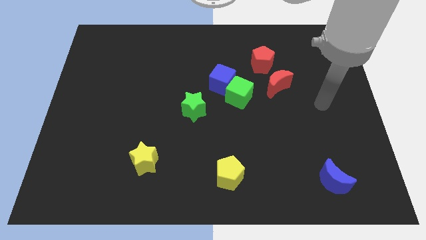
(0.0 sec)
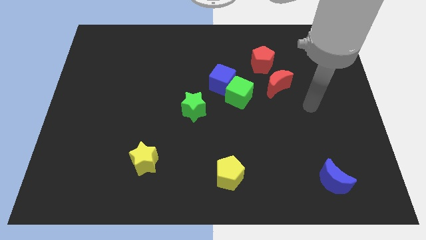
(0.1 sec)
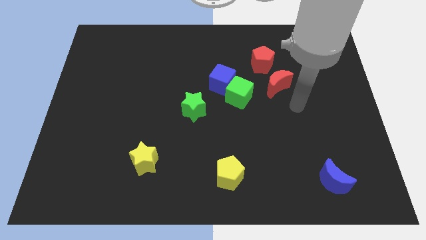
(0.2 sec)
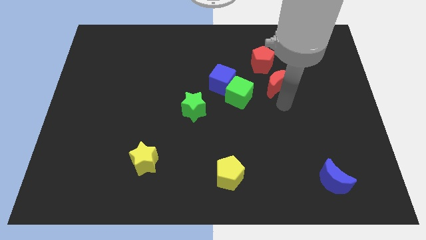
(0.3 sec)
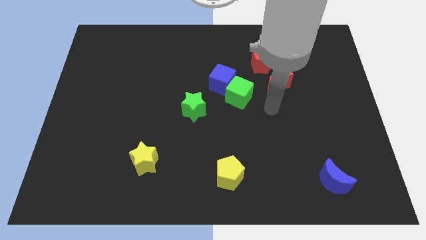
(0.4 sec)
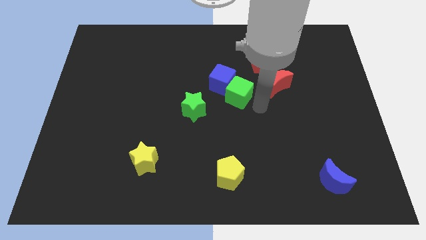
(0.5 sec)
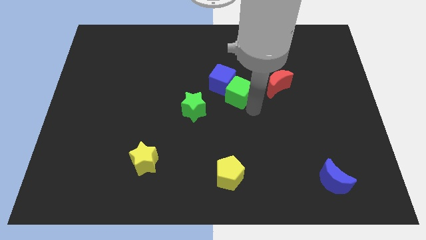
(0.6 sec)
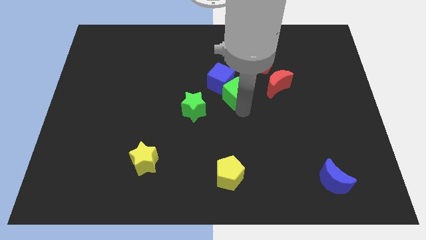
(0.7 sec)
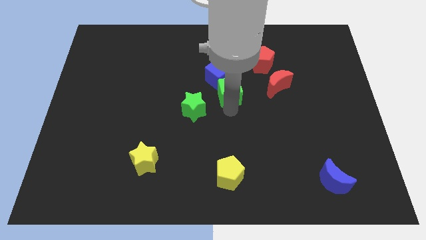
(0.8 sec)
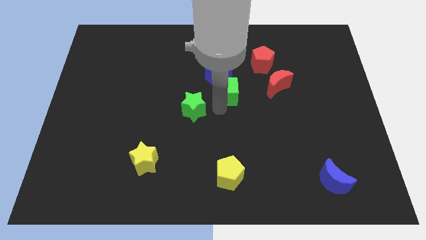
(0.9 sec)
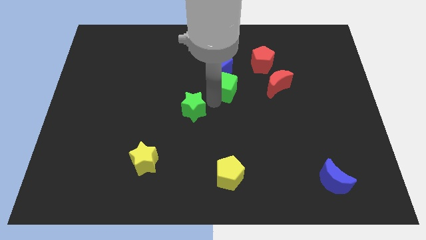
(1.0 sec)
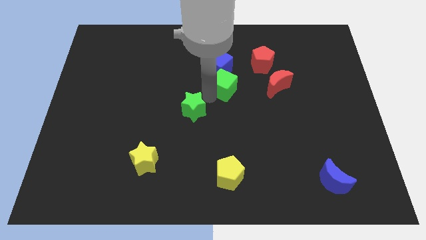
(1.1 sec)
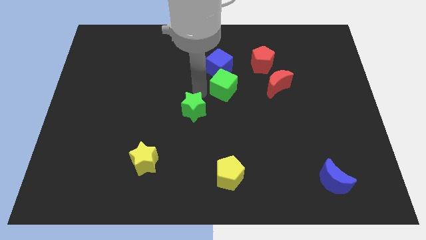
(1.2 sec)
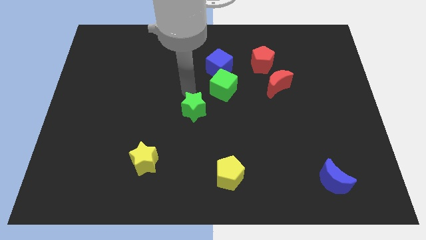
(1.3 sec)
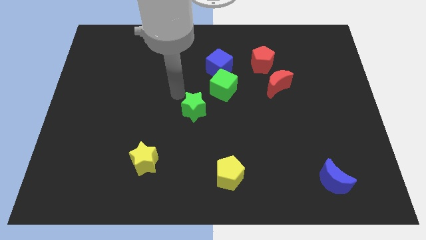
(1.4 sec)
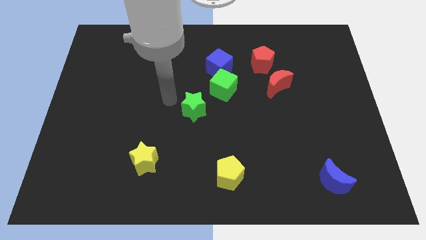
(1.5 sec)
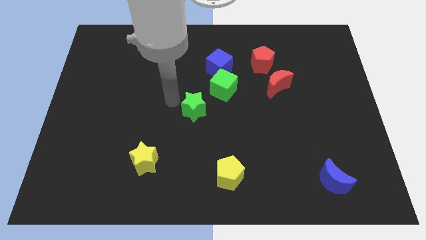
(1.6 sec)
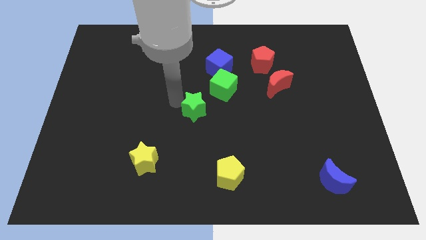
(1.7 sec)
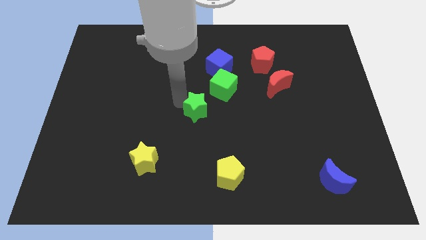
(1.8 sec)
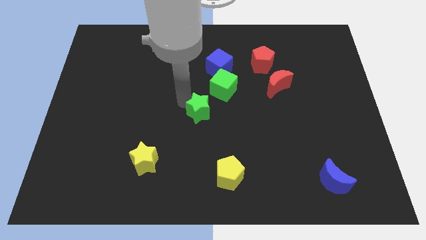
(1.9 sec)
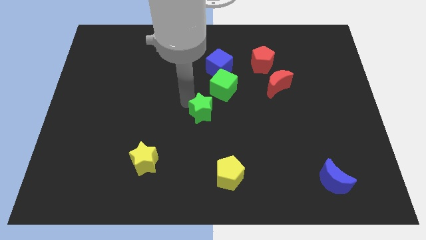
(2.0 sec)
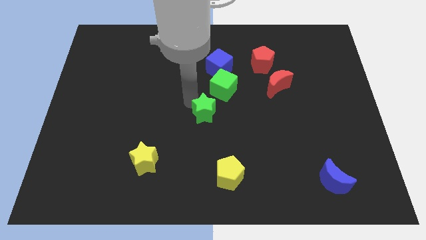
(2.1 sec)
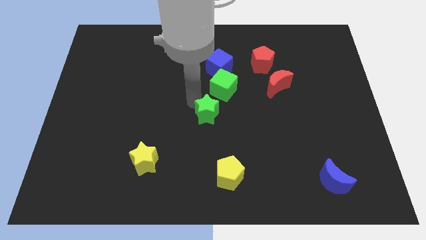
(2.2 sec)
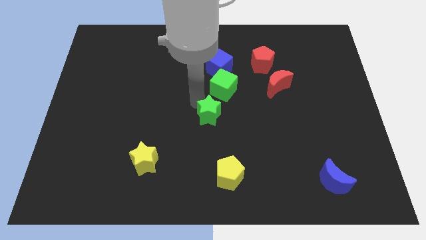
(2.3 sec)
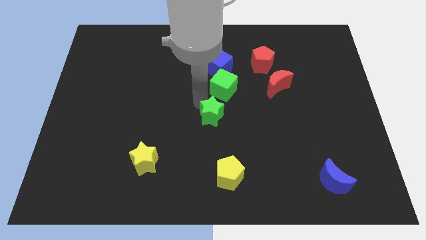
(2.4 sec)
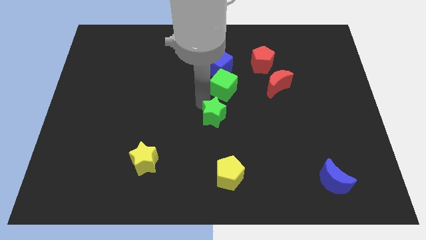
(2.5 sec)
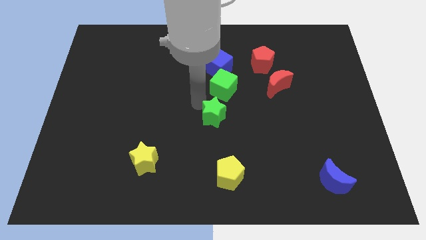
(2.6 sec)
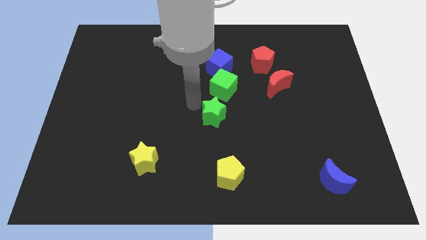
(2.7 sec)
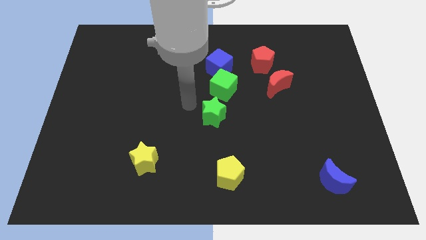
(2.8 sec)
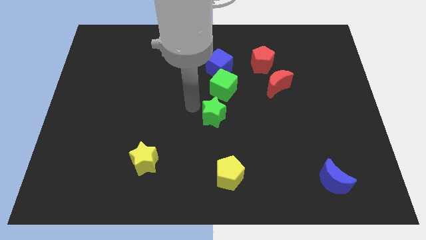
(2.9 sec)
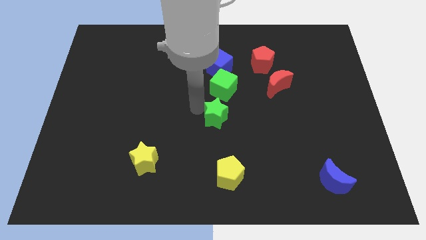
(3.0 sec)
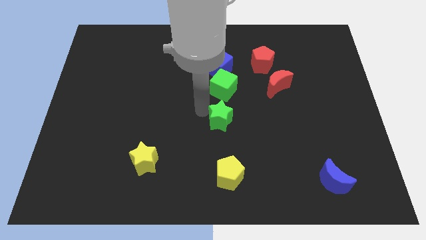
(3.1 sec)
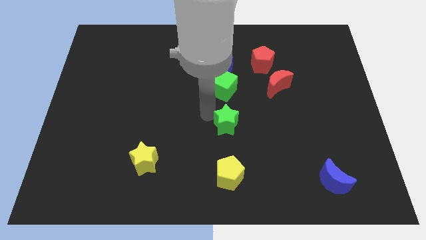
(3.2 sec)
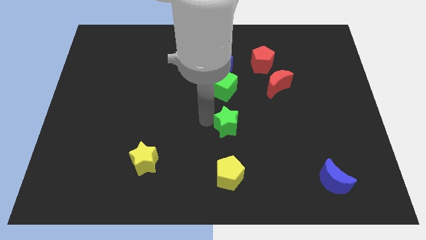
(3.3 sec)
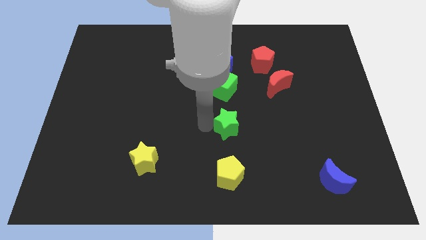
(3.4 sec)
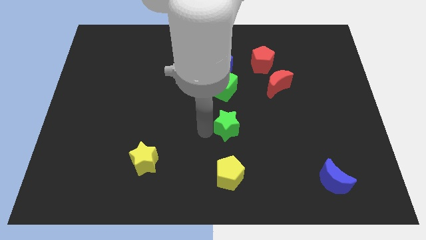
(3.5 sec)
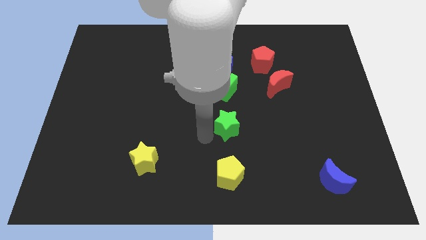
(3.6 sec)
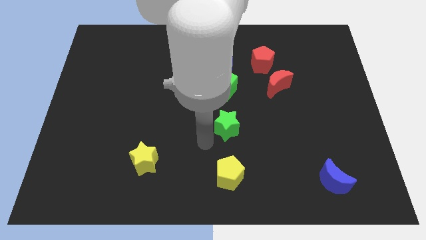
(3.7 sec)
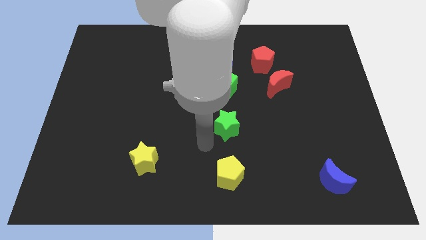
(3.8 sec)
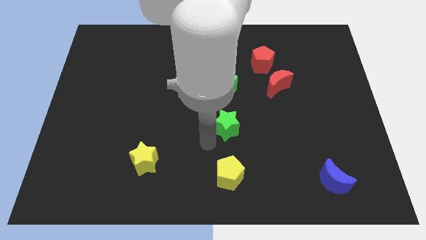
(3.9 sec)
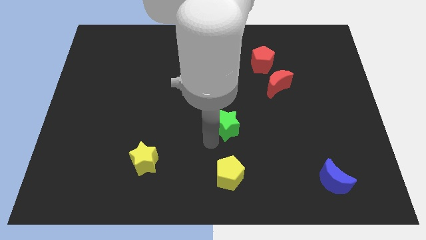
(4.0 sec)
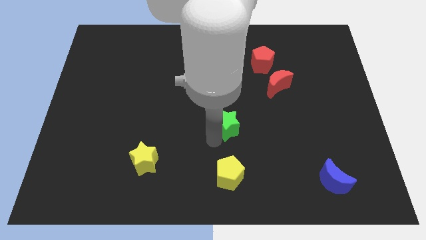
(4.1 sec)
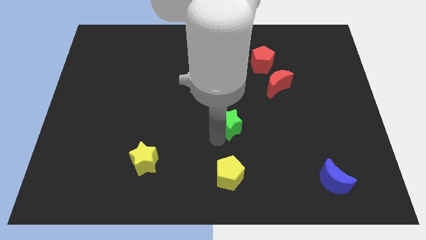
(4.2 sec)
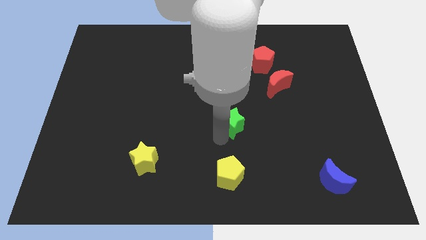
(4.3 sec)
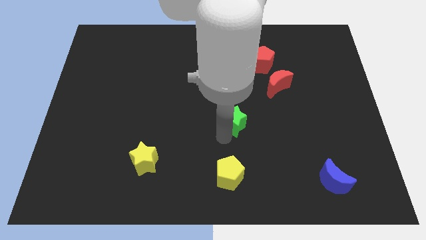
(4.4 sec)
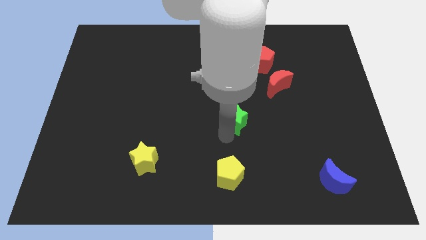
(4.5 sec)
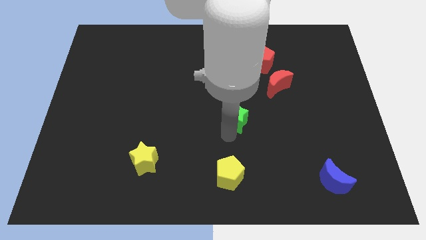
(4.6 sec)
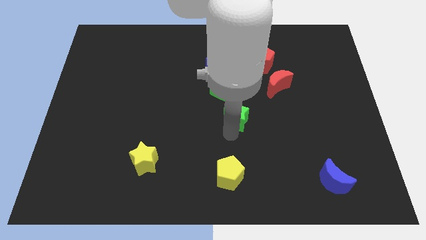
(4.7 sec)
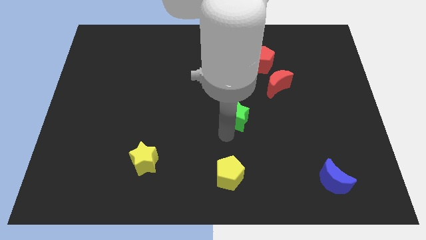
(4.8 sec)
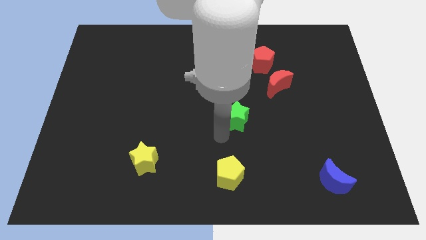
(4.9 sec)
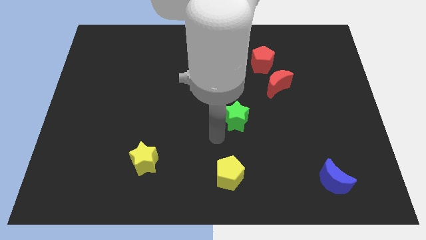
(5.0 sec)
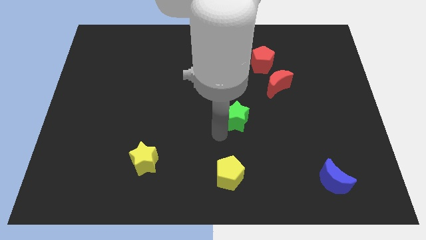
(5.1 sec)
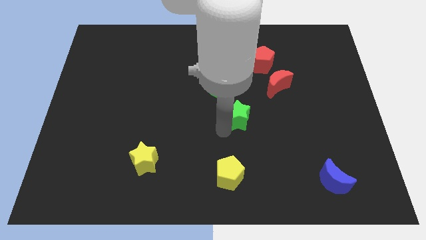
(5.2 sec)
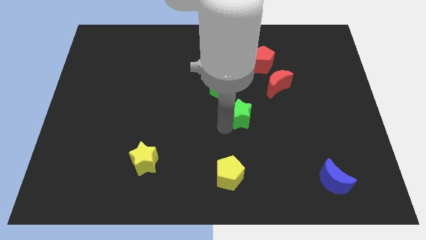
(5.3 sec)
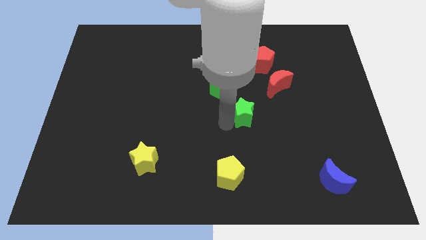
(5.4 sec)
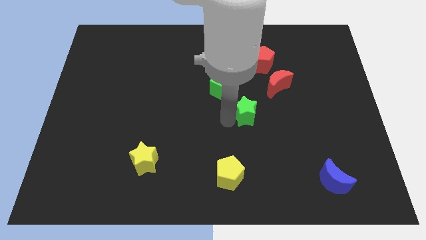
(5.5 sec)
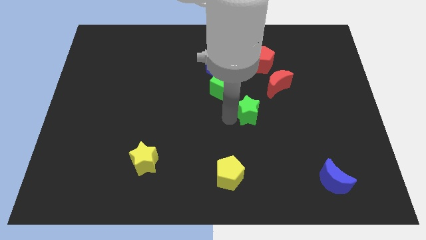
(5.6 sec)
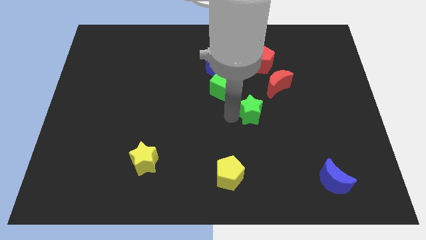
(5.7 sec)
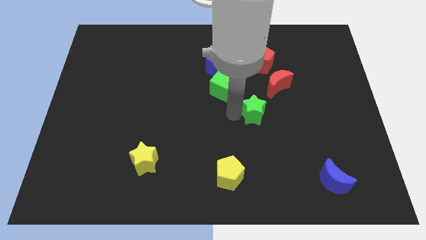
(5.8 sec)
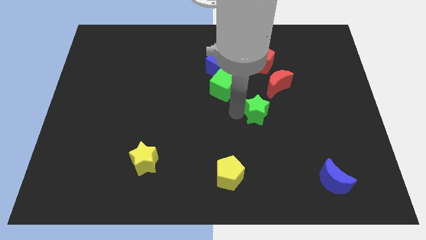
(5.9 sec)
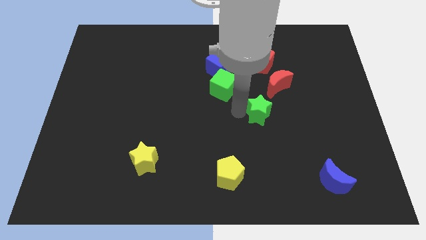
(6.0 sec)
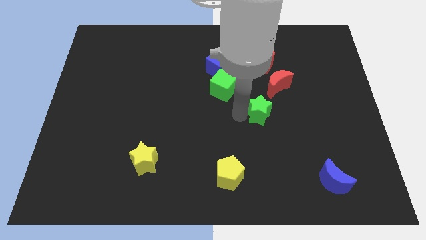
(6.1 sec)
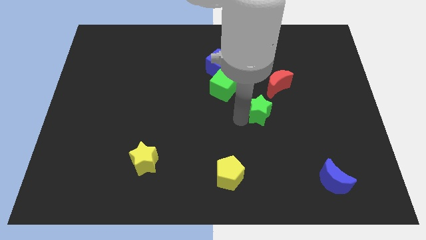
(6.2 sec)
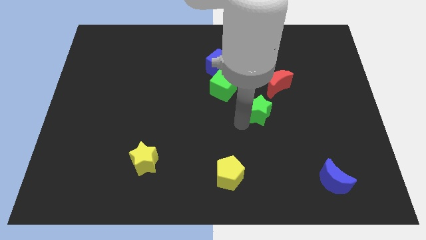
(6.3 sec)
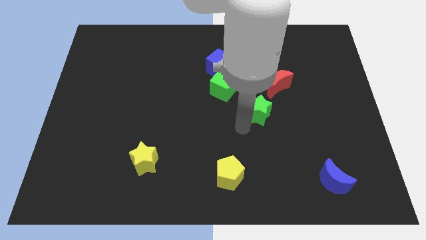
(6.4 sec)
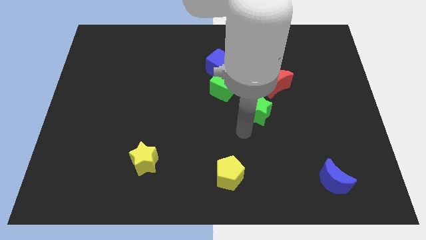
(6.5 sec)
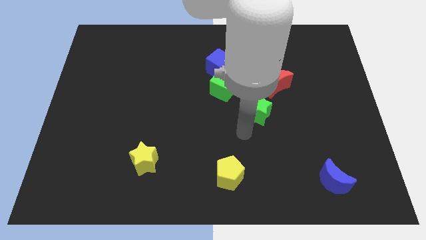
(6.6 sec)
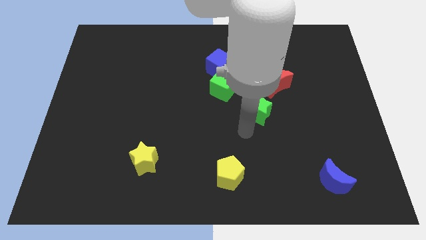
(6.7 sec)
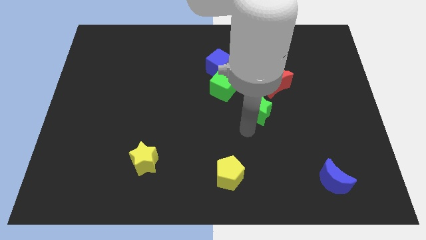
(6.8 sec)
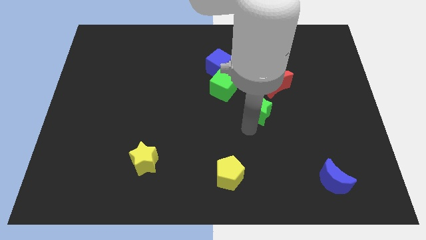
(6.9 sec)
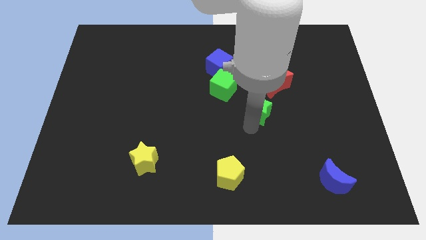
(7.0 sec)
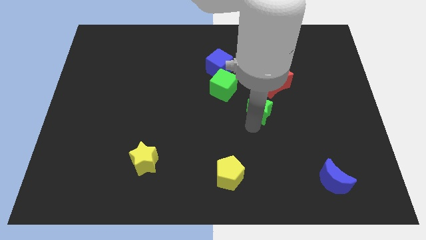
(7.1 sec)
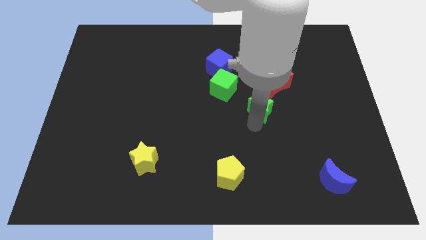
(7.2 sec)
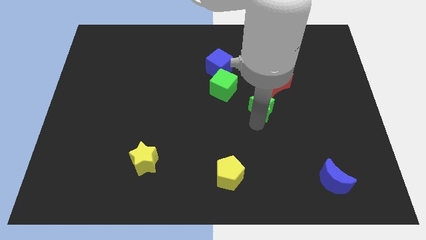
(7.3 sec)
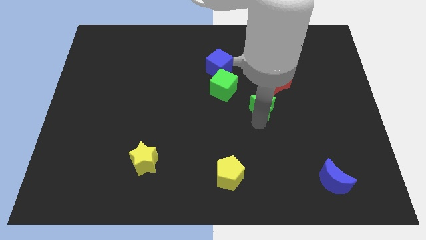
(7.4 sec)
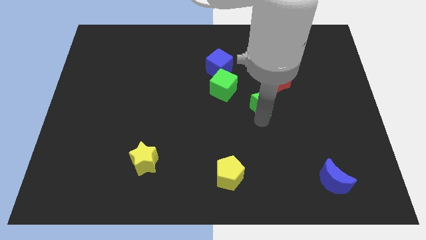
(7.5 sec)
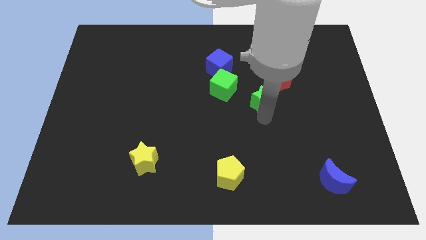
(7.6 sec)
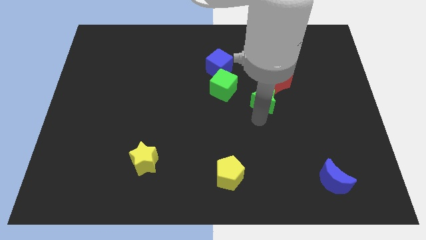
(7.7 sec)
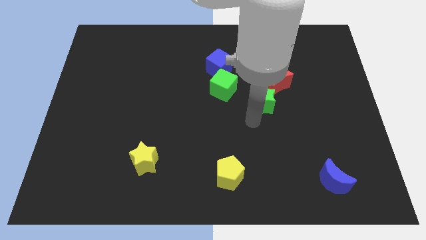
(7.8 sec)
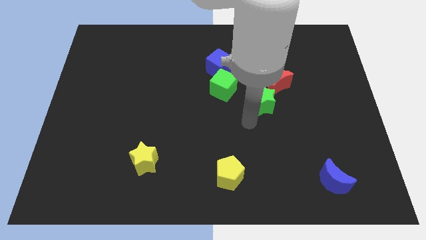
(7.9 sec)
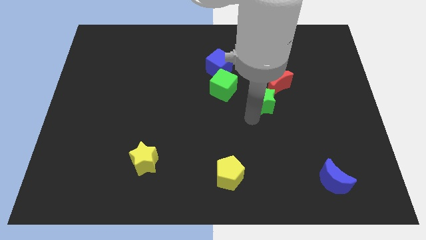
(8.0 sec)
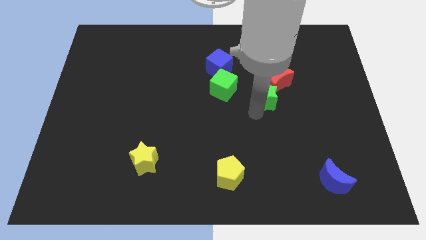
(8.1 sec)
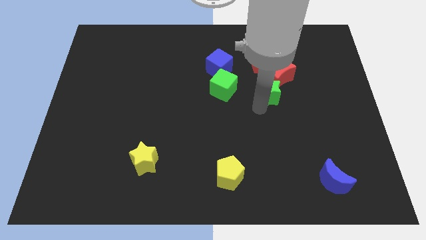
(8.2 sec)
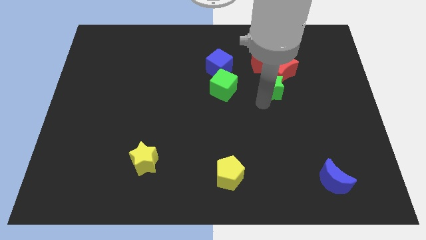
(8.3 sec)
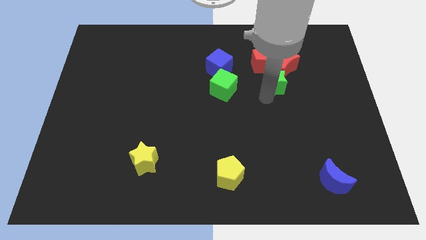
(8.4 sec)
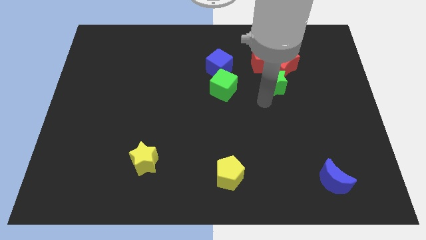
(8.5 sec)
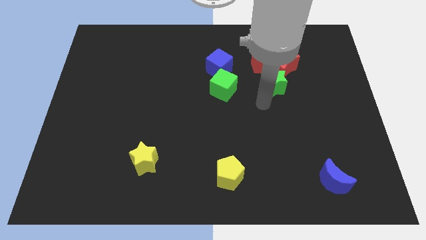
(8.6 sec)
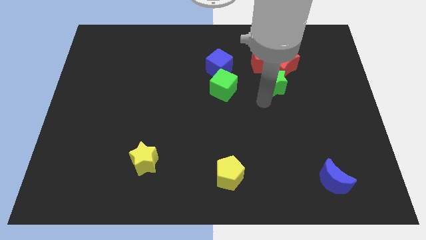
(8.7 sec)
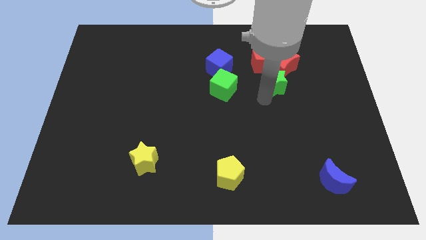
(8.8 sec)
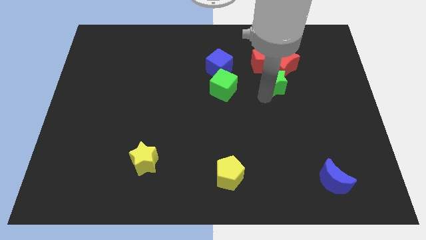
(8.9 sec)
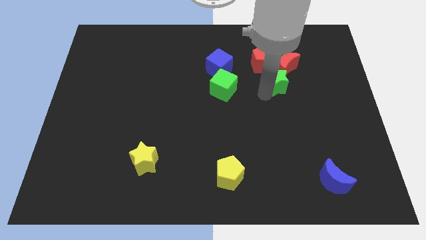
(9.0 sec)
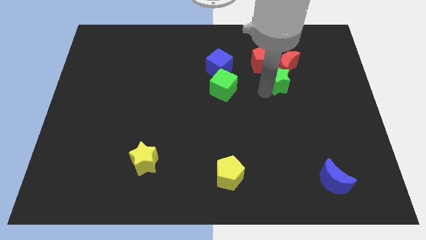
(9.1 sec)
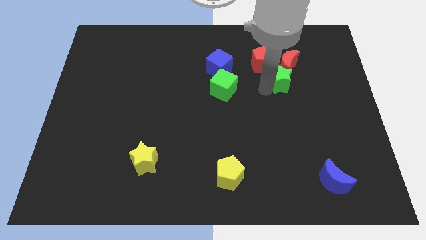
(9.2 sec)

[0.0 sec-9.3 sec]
slide the green star to the red moon
